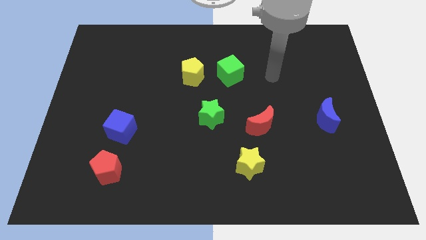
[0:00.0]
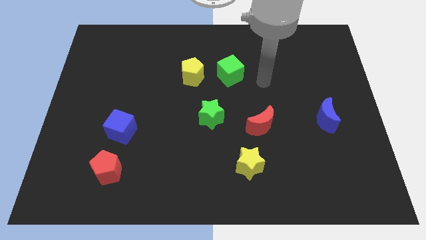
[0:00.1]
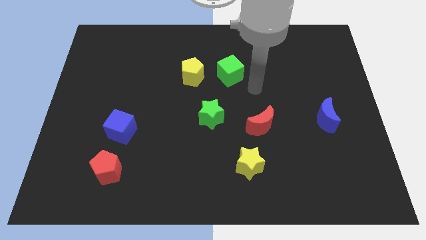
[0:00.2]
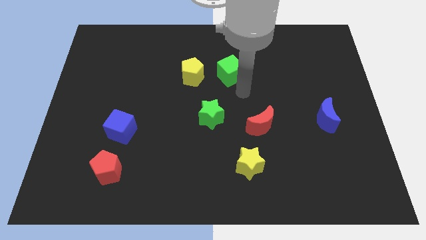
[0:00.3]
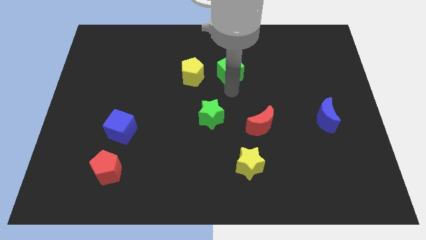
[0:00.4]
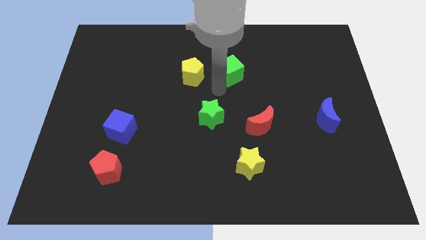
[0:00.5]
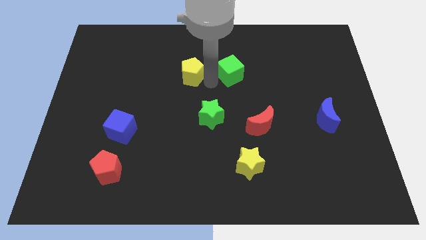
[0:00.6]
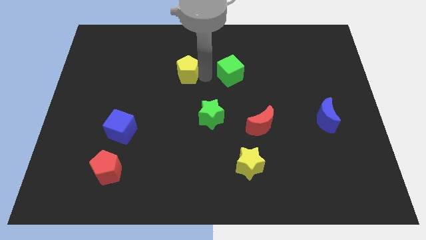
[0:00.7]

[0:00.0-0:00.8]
pull the green cube apart from the yellow pentagon

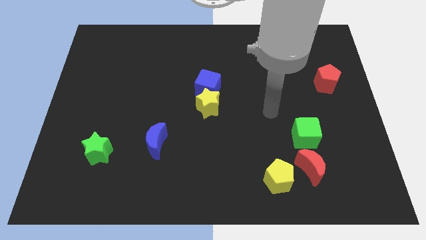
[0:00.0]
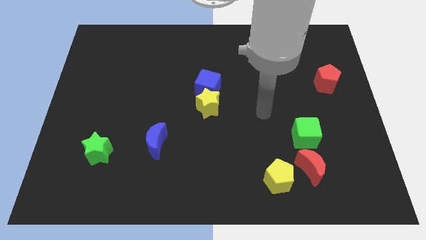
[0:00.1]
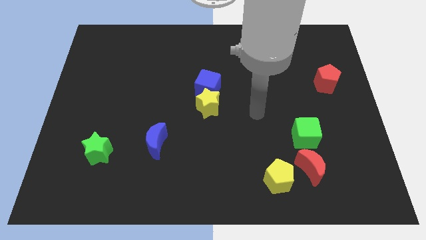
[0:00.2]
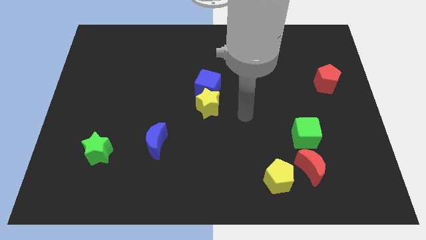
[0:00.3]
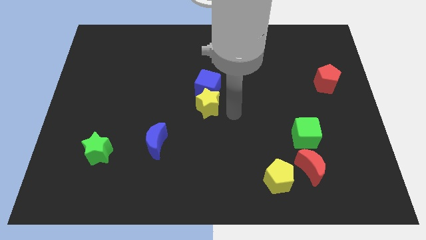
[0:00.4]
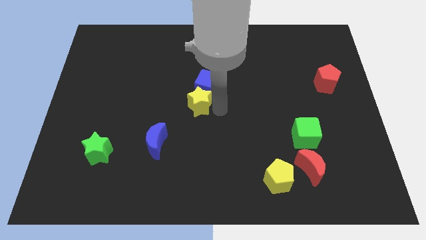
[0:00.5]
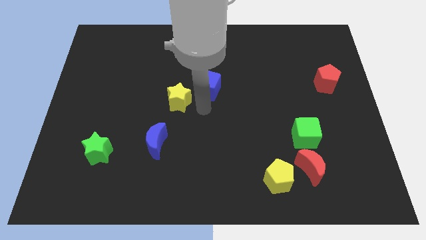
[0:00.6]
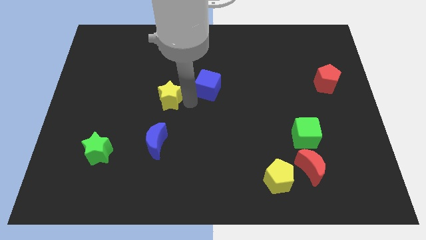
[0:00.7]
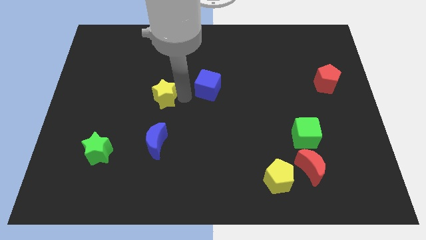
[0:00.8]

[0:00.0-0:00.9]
separate the blue cube from the yellow star

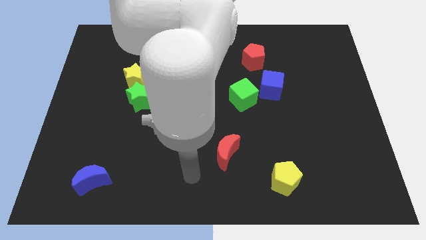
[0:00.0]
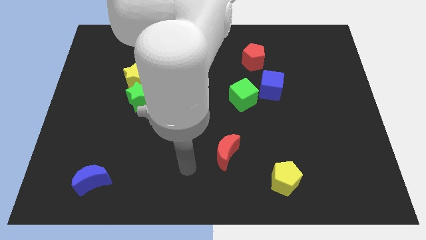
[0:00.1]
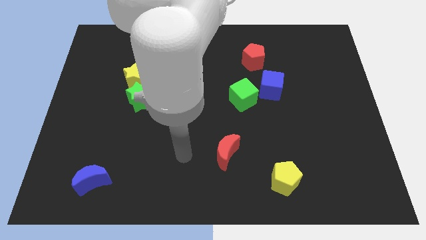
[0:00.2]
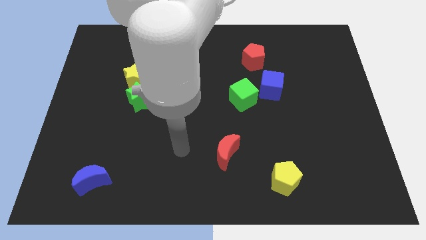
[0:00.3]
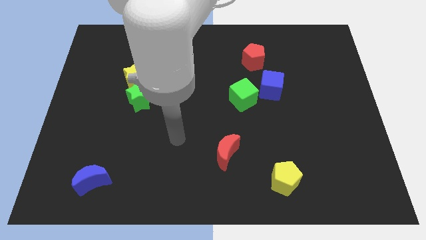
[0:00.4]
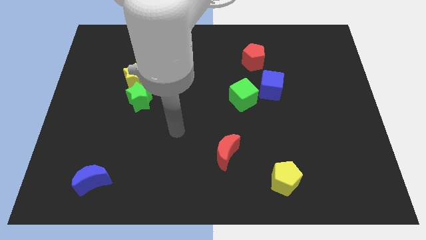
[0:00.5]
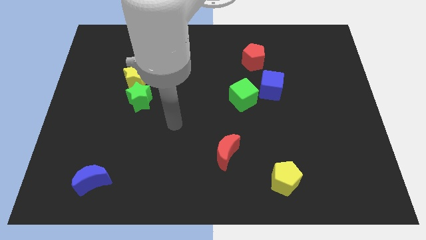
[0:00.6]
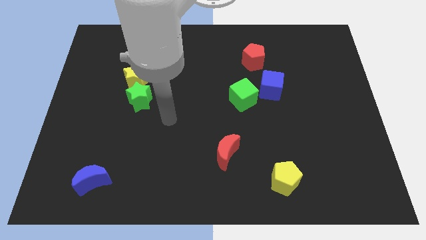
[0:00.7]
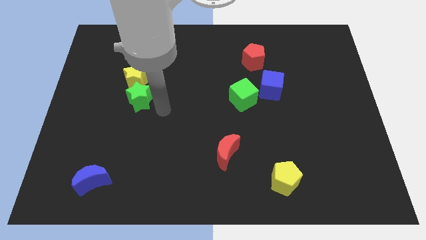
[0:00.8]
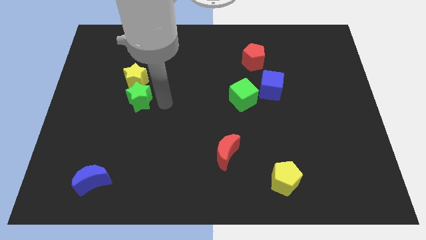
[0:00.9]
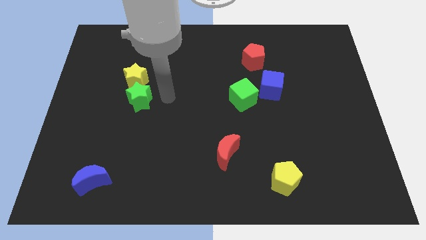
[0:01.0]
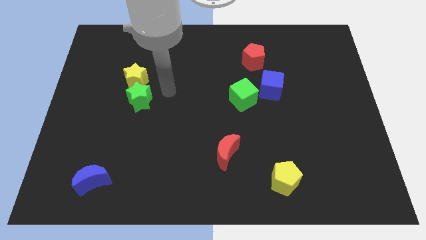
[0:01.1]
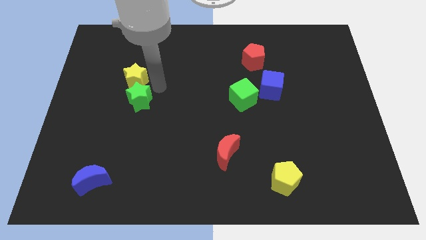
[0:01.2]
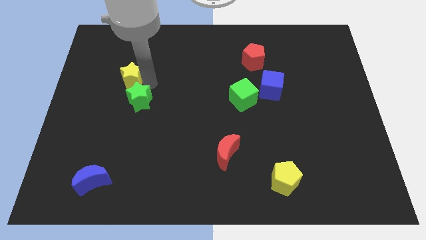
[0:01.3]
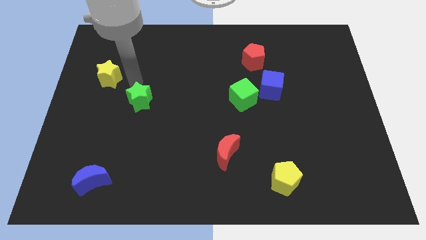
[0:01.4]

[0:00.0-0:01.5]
separate the green star from the yellow star

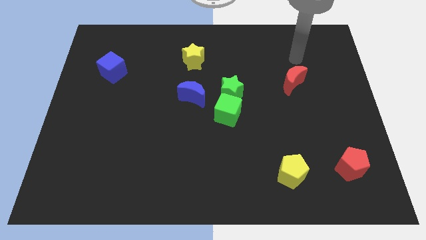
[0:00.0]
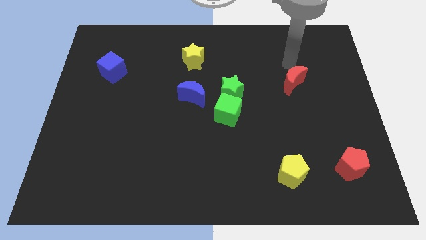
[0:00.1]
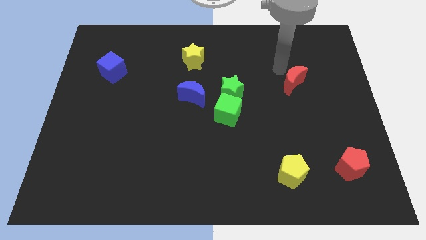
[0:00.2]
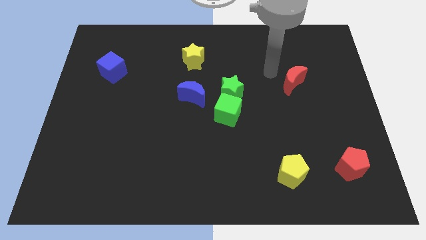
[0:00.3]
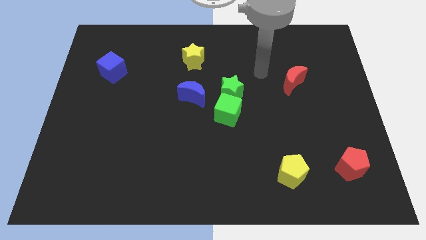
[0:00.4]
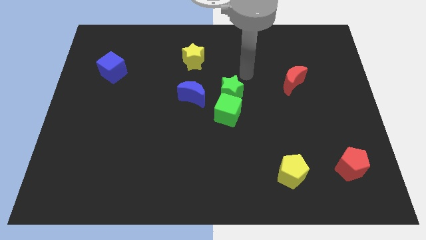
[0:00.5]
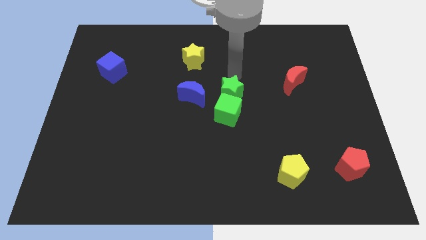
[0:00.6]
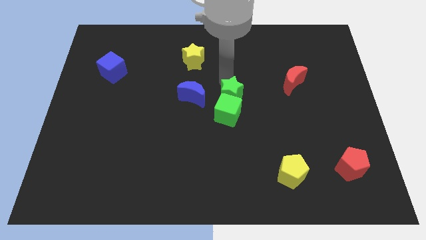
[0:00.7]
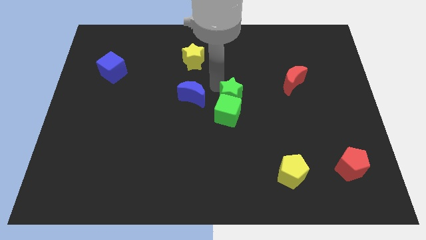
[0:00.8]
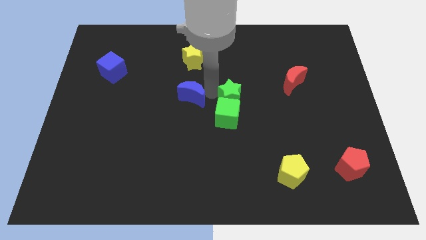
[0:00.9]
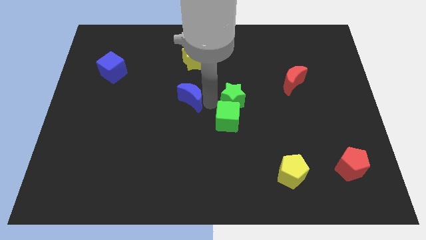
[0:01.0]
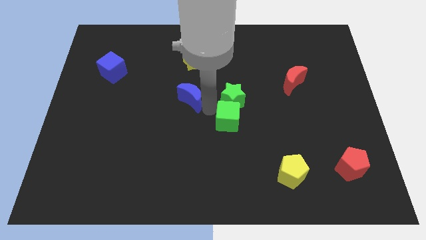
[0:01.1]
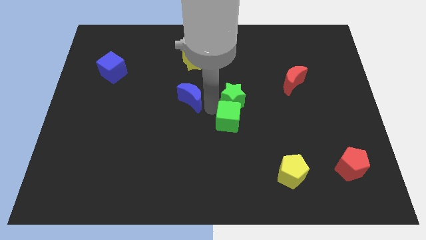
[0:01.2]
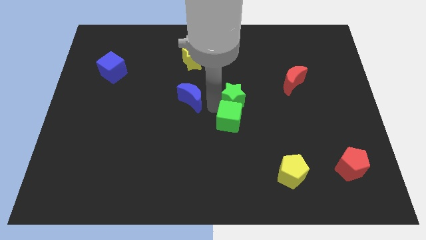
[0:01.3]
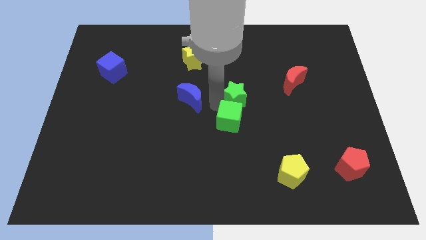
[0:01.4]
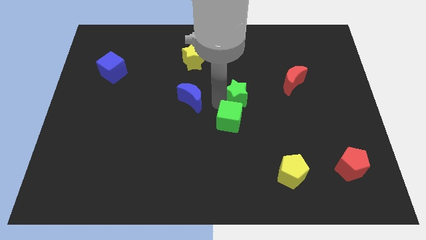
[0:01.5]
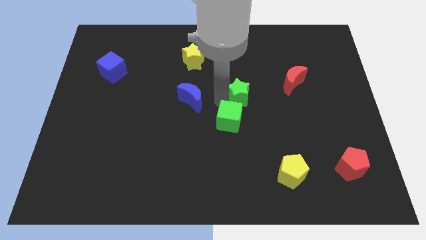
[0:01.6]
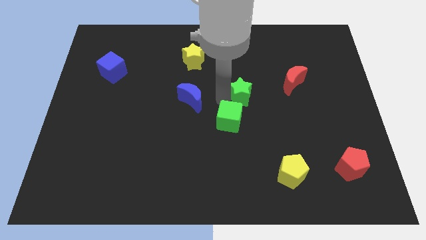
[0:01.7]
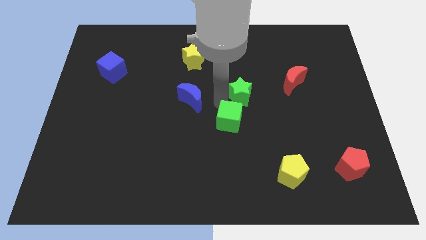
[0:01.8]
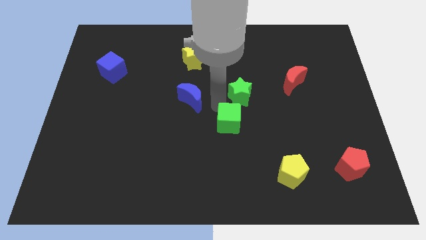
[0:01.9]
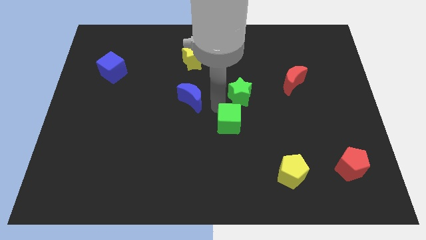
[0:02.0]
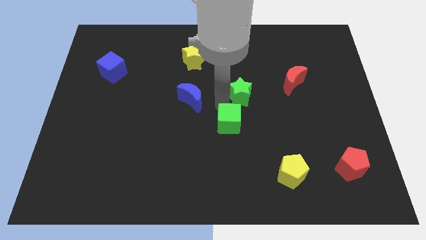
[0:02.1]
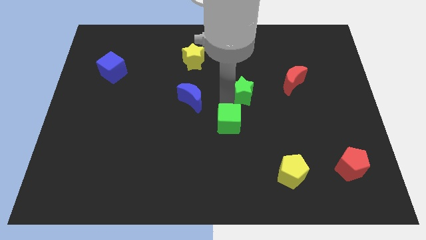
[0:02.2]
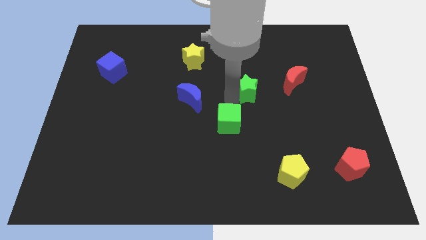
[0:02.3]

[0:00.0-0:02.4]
pull the green star apart from the green cube and blue moon

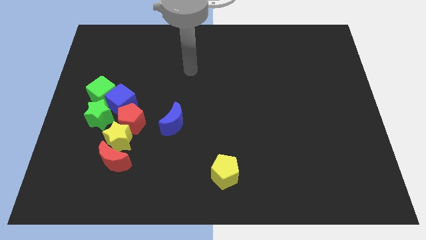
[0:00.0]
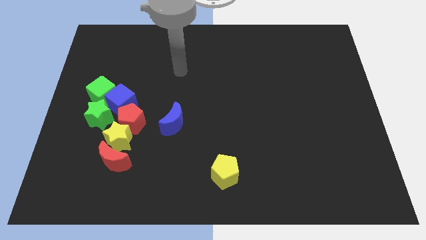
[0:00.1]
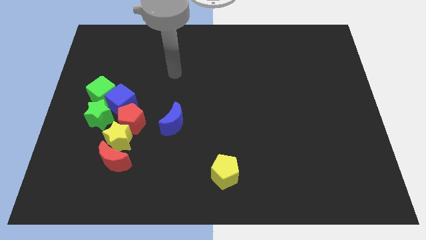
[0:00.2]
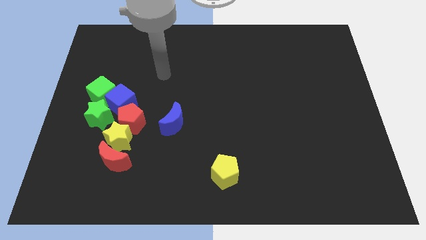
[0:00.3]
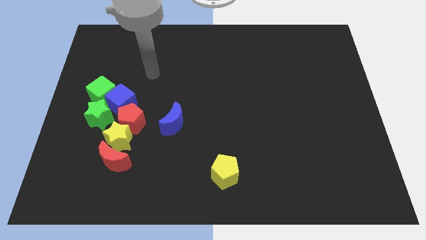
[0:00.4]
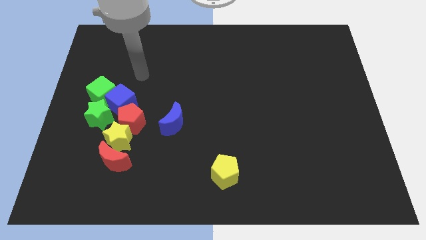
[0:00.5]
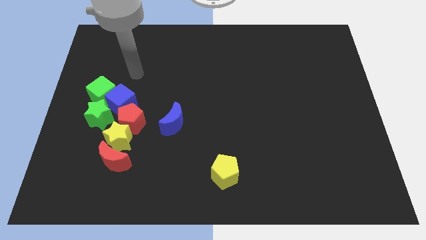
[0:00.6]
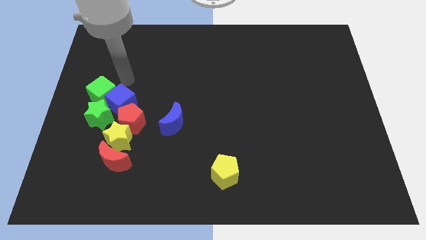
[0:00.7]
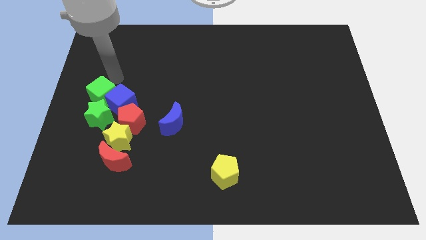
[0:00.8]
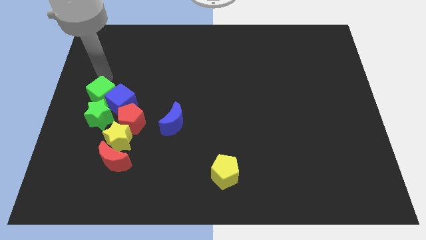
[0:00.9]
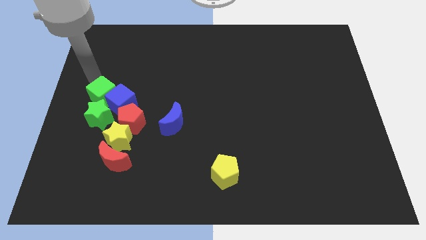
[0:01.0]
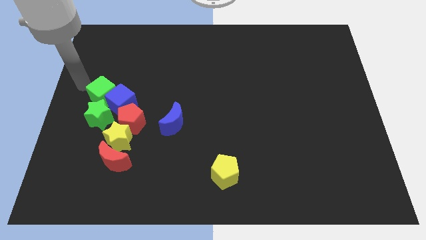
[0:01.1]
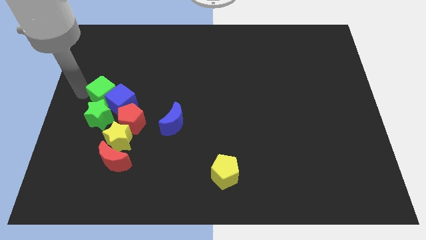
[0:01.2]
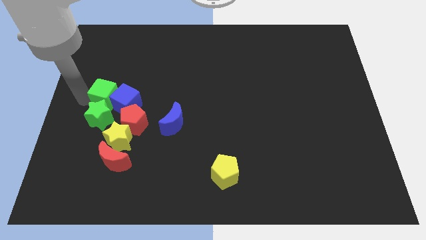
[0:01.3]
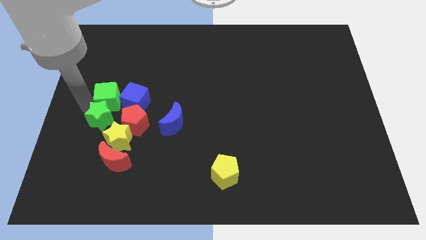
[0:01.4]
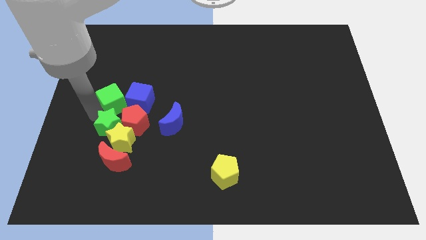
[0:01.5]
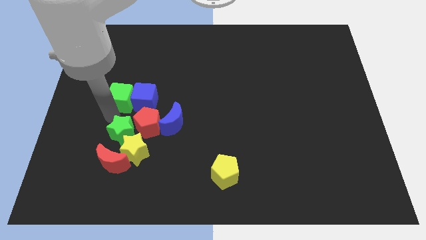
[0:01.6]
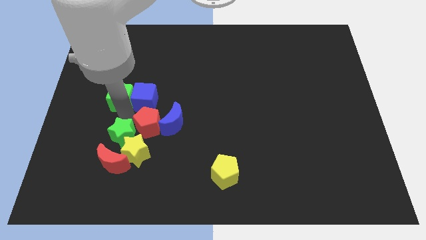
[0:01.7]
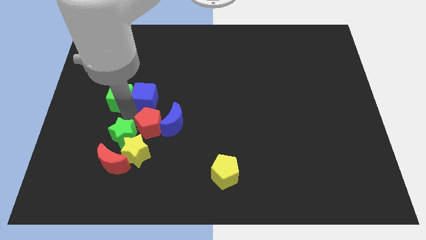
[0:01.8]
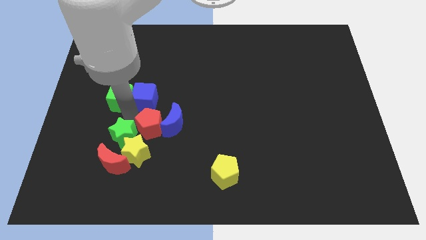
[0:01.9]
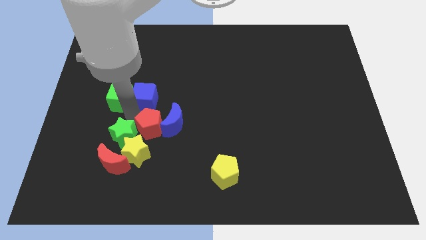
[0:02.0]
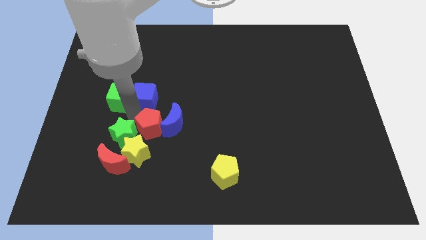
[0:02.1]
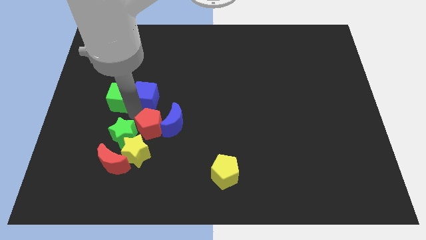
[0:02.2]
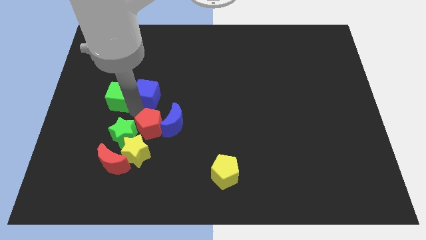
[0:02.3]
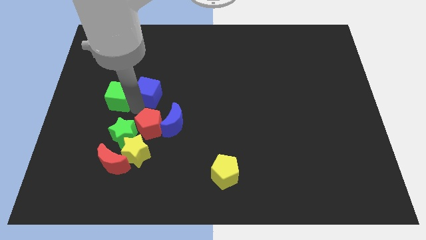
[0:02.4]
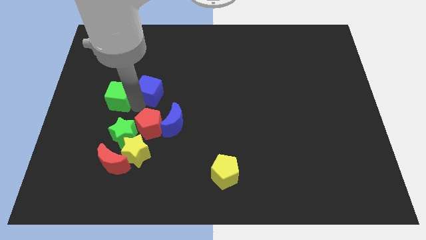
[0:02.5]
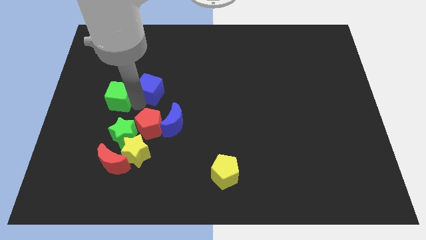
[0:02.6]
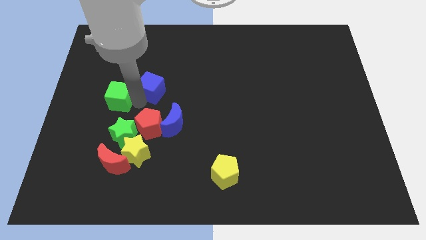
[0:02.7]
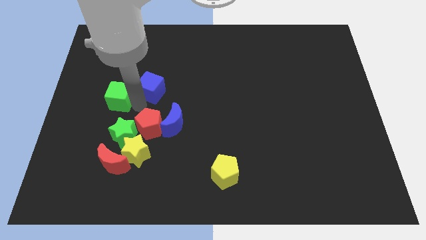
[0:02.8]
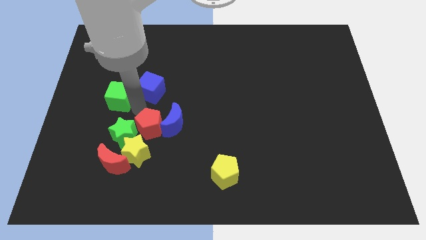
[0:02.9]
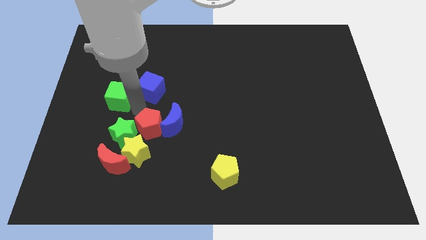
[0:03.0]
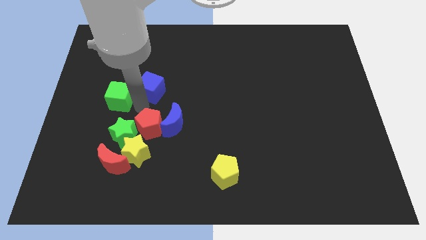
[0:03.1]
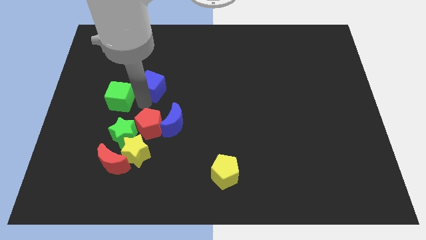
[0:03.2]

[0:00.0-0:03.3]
separate the blue cube from the group

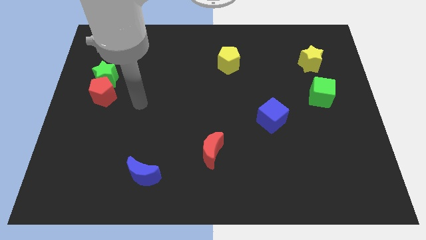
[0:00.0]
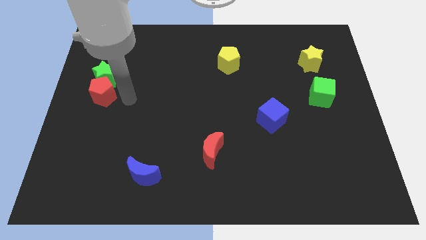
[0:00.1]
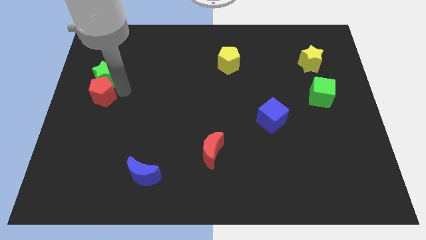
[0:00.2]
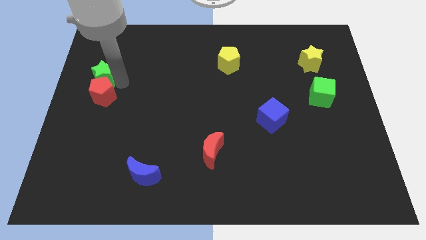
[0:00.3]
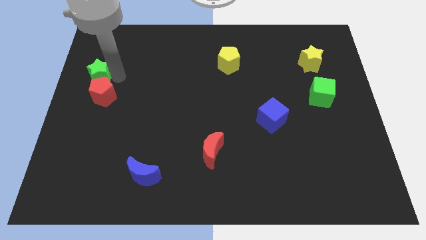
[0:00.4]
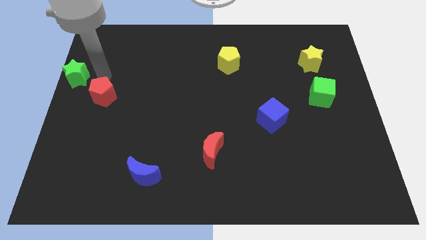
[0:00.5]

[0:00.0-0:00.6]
pull the red pentagon apart from the green star

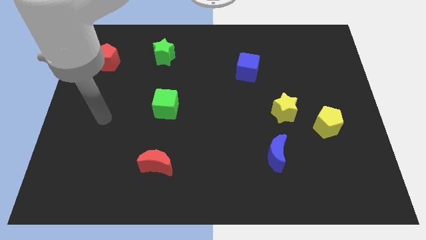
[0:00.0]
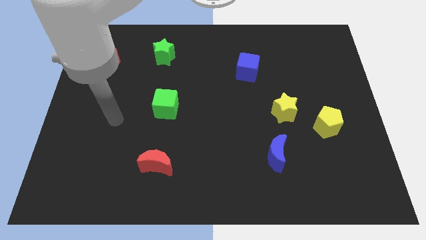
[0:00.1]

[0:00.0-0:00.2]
separate the yellow star from the yellow pentagon
